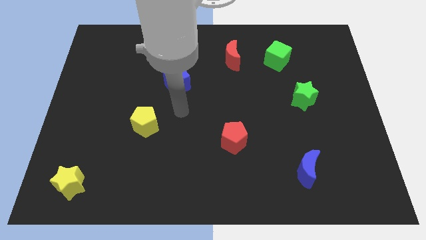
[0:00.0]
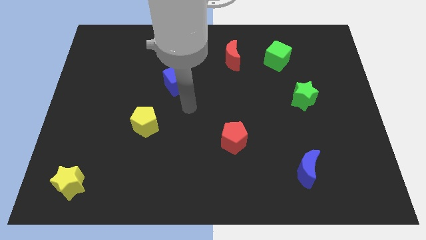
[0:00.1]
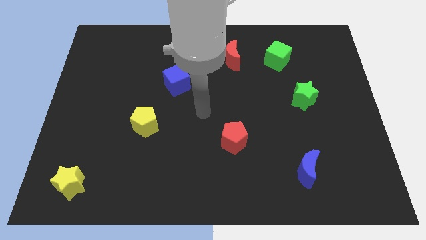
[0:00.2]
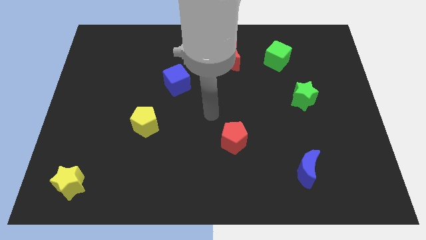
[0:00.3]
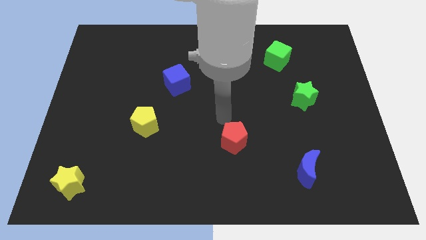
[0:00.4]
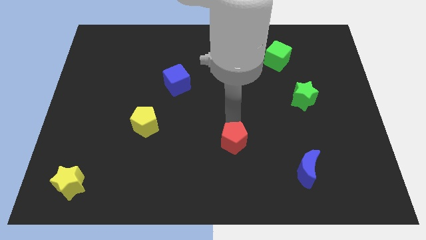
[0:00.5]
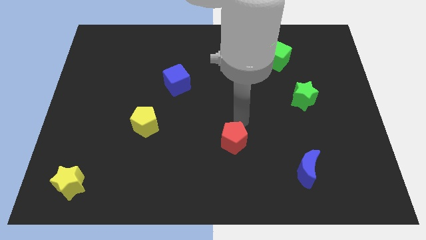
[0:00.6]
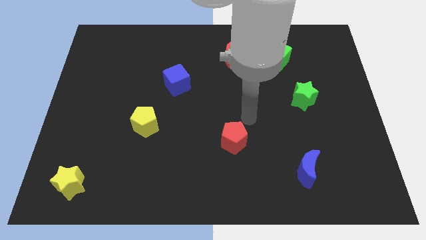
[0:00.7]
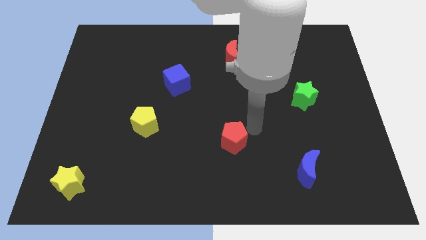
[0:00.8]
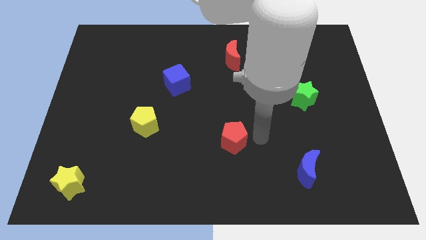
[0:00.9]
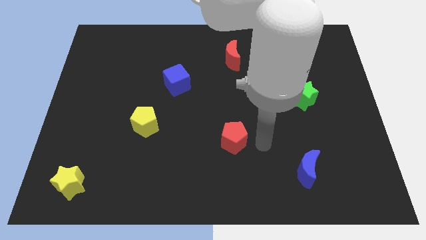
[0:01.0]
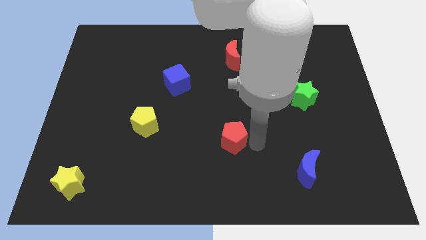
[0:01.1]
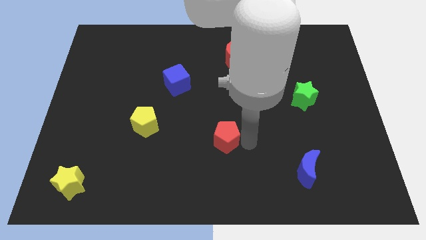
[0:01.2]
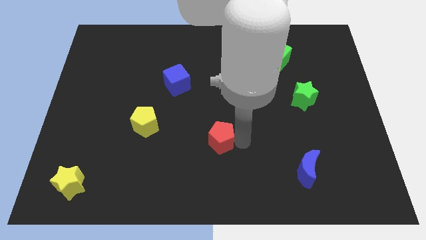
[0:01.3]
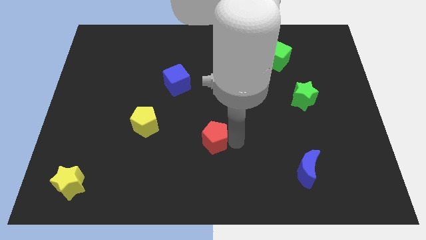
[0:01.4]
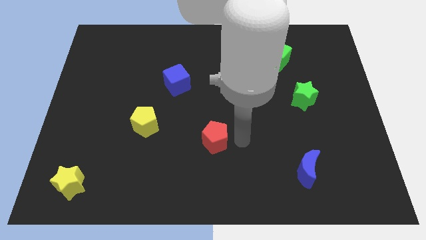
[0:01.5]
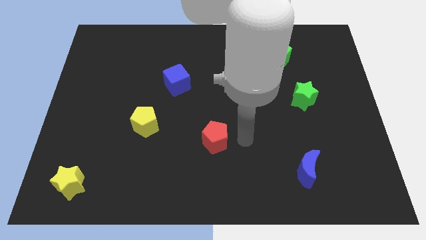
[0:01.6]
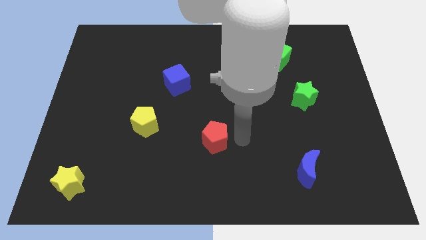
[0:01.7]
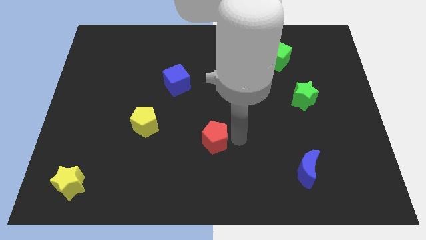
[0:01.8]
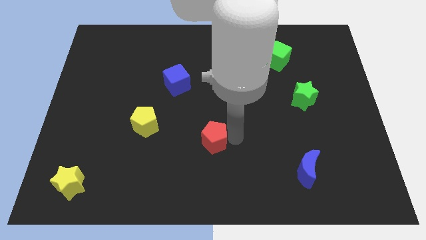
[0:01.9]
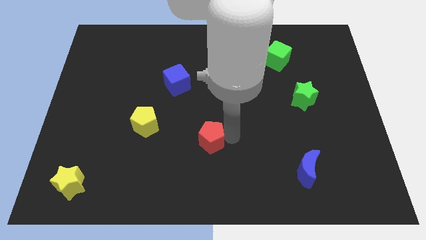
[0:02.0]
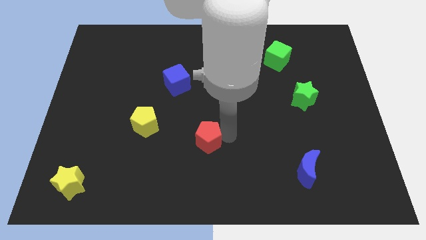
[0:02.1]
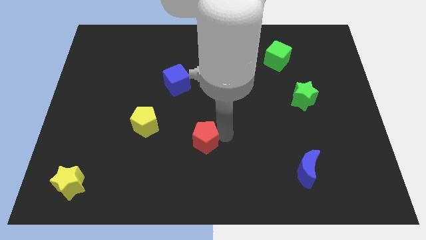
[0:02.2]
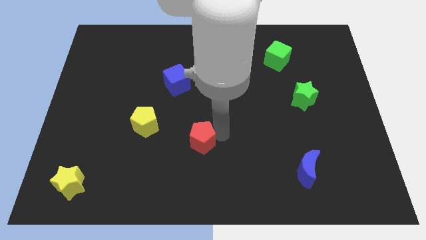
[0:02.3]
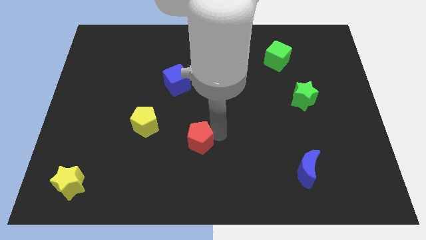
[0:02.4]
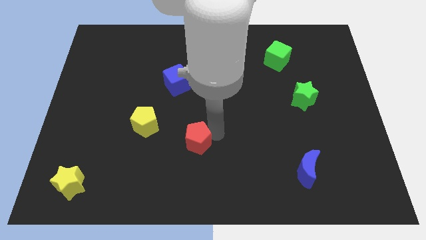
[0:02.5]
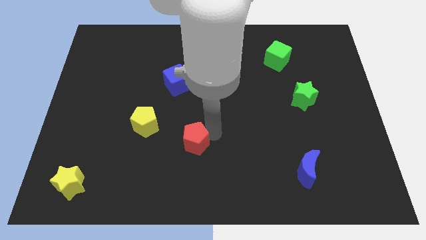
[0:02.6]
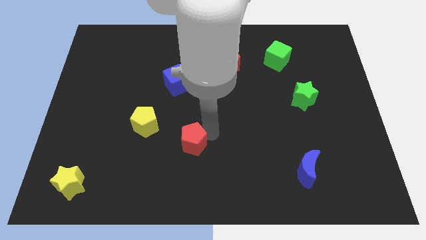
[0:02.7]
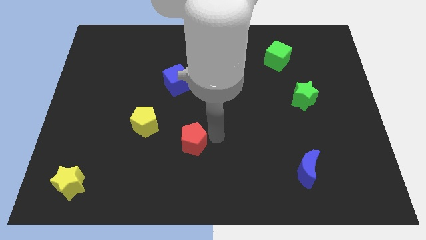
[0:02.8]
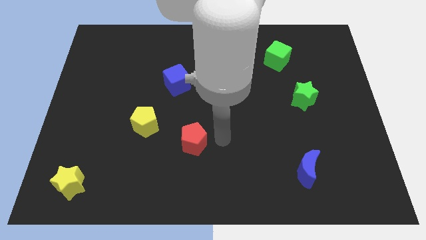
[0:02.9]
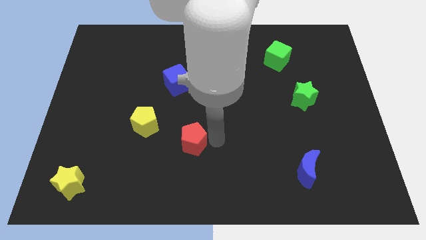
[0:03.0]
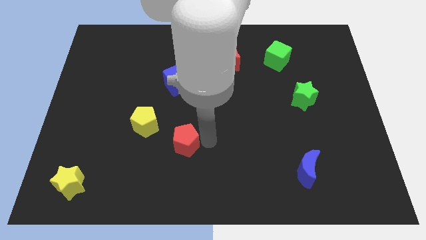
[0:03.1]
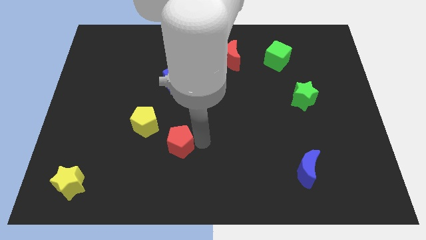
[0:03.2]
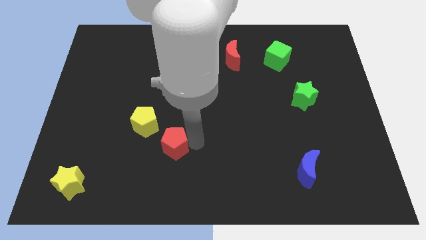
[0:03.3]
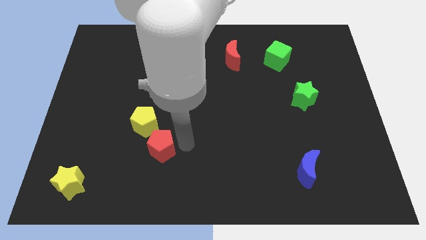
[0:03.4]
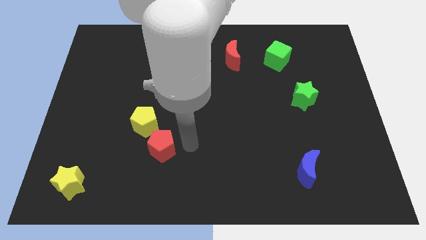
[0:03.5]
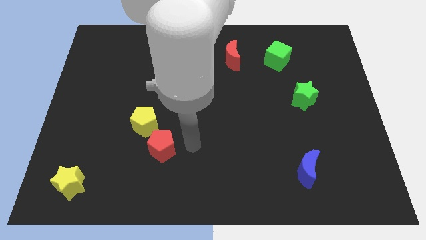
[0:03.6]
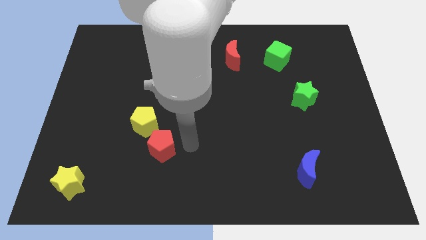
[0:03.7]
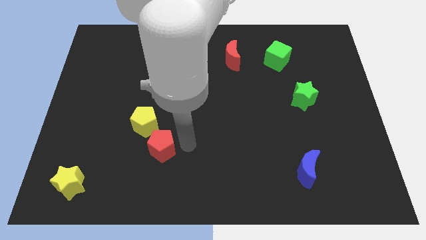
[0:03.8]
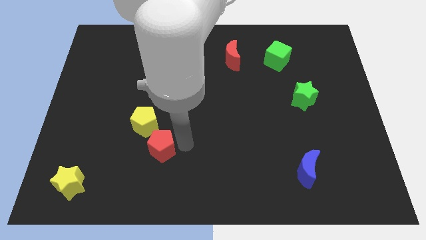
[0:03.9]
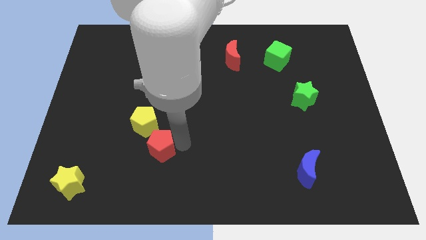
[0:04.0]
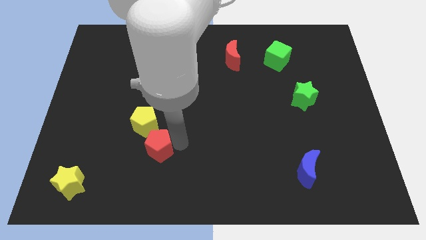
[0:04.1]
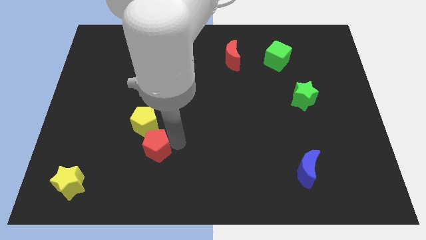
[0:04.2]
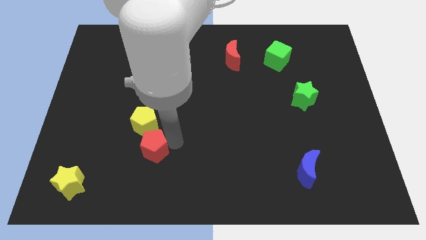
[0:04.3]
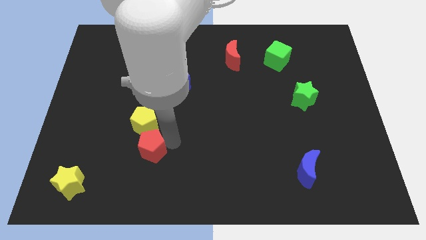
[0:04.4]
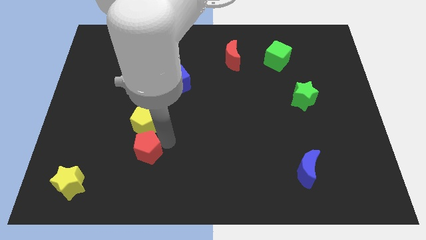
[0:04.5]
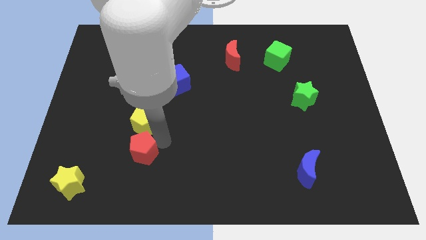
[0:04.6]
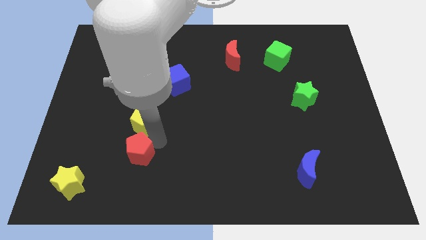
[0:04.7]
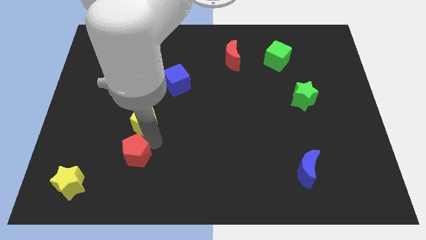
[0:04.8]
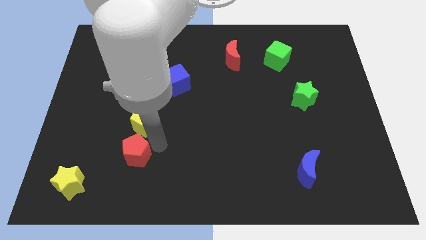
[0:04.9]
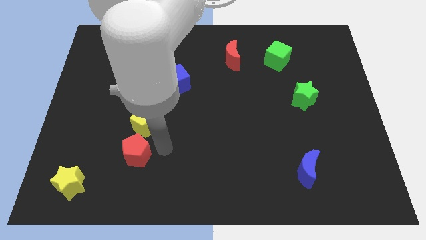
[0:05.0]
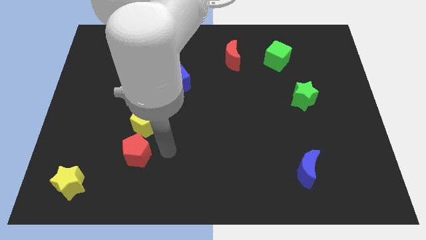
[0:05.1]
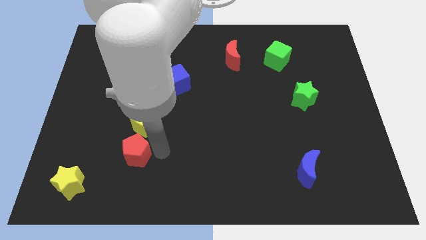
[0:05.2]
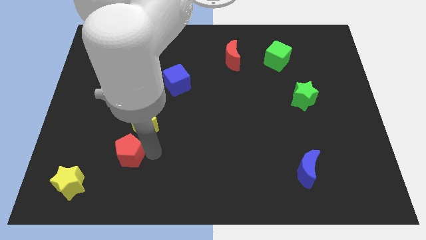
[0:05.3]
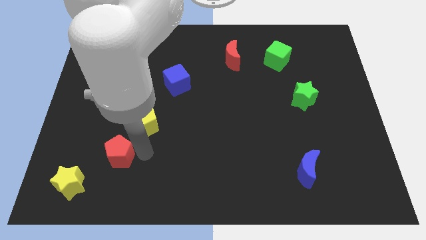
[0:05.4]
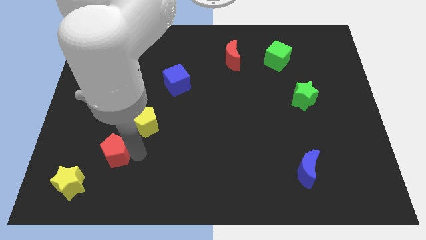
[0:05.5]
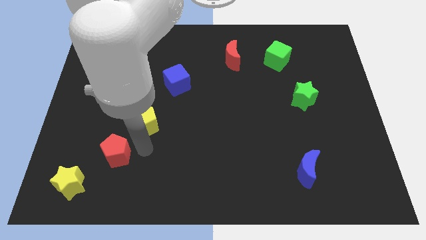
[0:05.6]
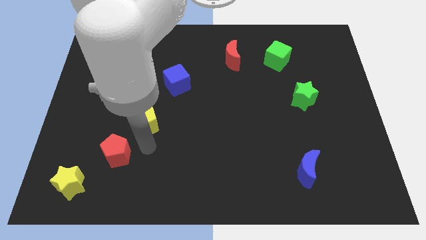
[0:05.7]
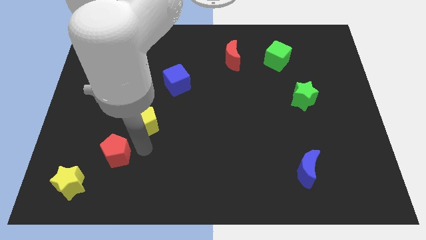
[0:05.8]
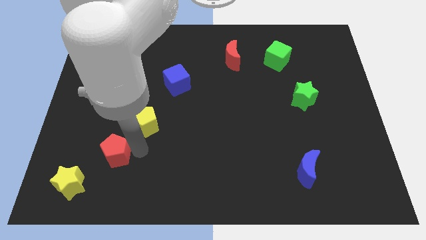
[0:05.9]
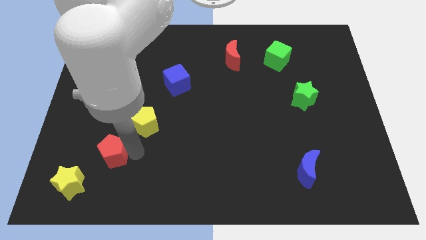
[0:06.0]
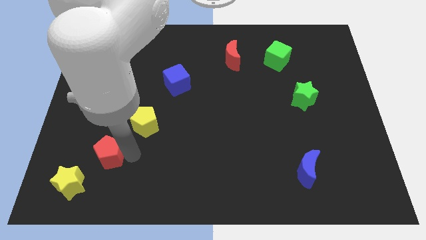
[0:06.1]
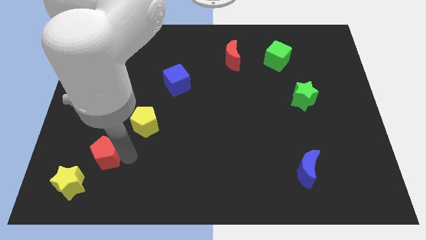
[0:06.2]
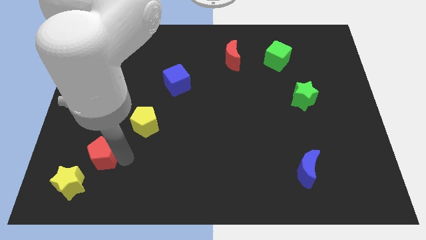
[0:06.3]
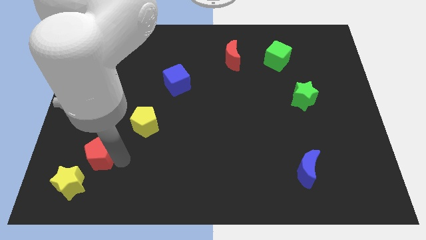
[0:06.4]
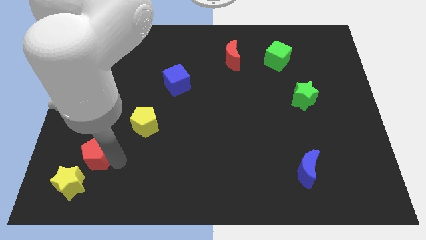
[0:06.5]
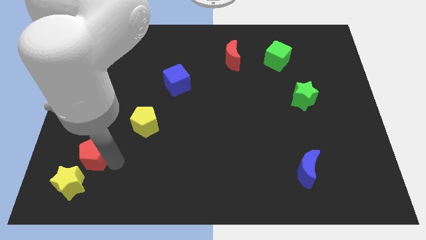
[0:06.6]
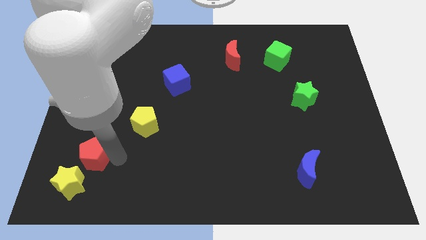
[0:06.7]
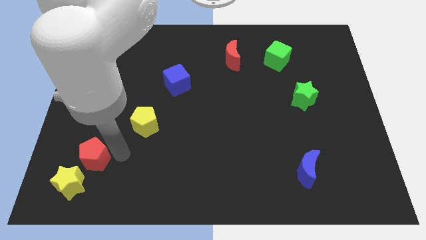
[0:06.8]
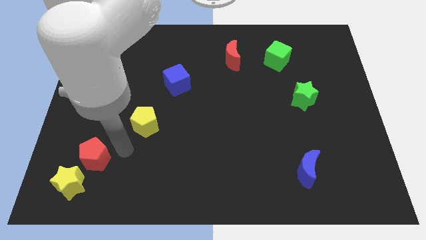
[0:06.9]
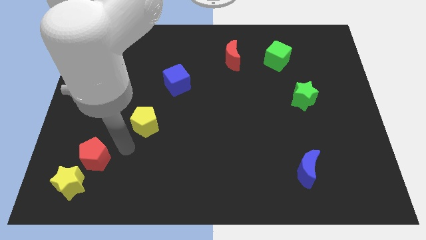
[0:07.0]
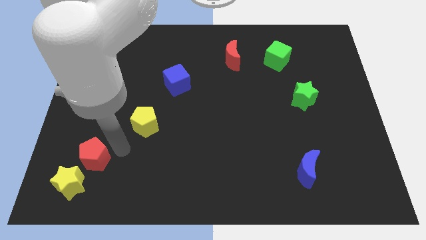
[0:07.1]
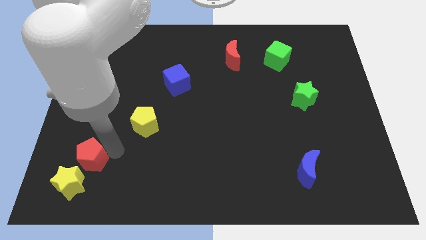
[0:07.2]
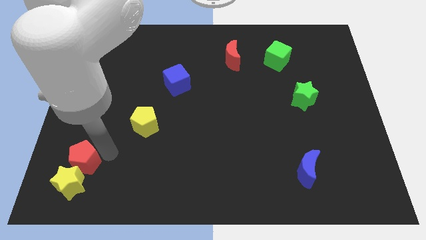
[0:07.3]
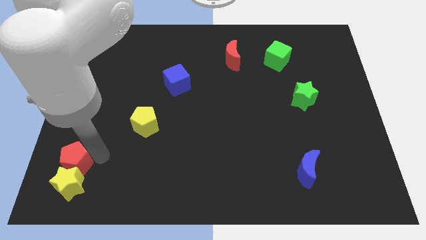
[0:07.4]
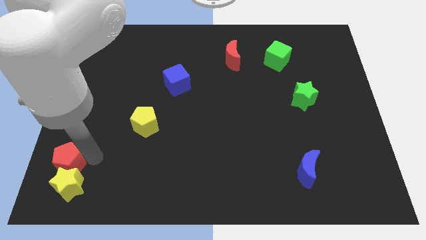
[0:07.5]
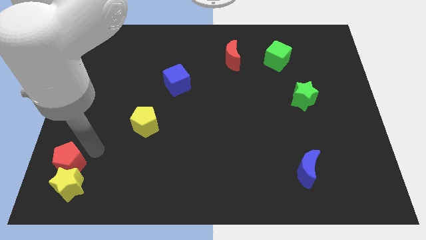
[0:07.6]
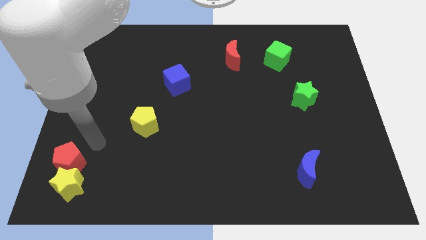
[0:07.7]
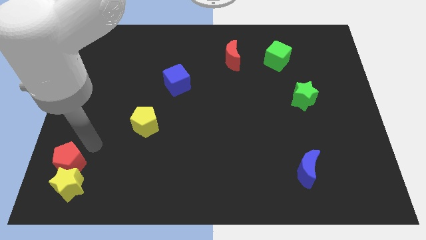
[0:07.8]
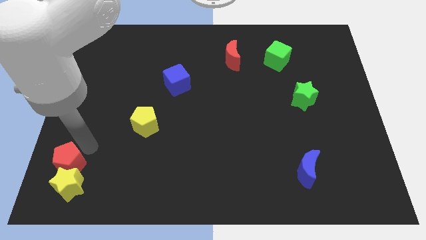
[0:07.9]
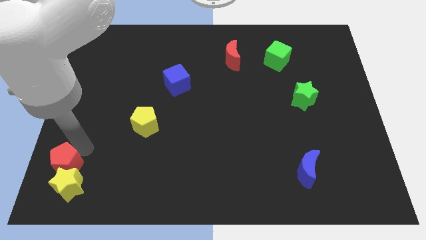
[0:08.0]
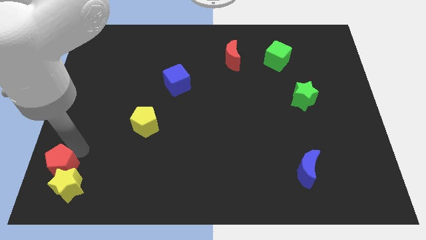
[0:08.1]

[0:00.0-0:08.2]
put the red pentagon to the bottom left of the board
